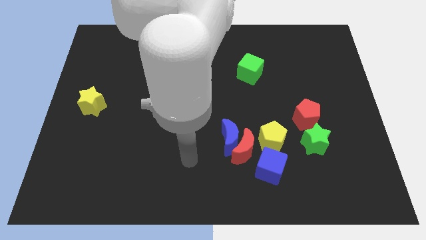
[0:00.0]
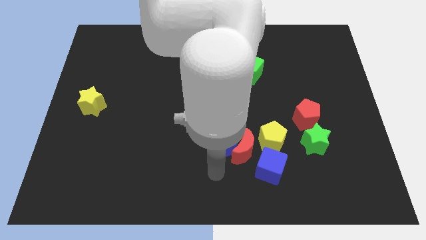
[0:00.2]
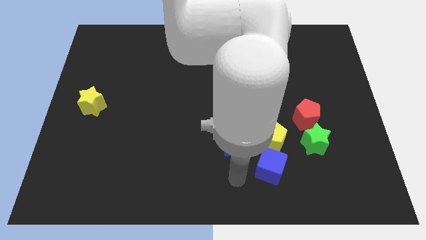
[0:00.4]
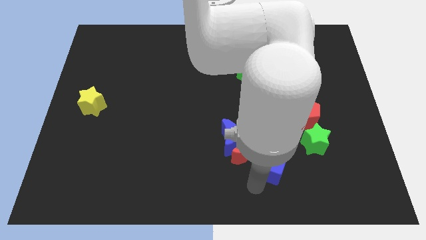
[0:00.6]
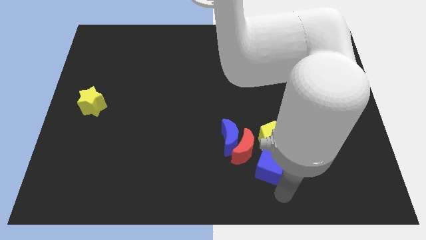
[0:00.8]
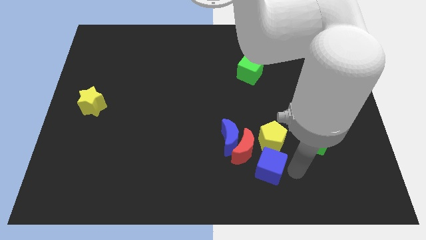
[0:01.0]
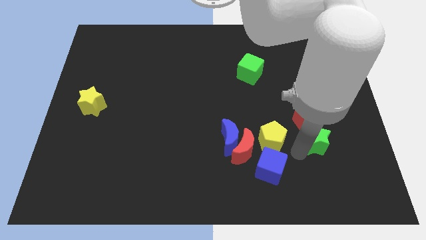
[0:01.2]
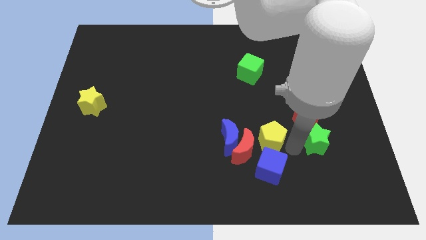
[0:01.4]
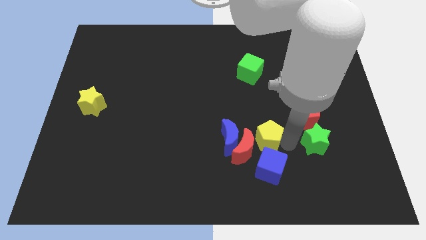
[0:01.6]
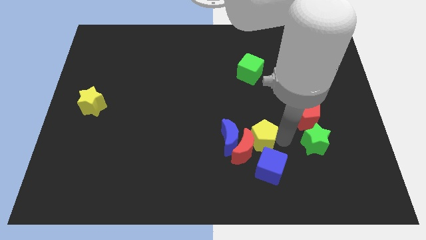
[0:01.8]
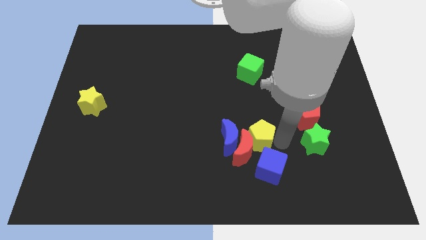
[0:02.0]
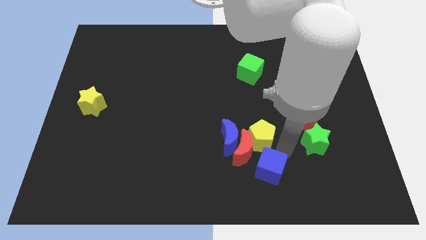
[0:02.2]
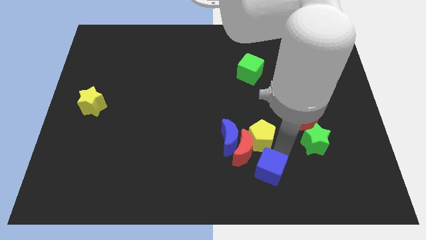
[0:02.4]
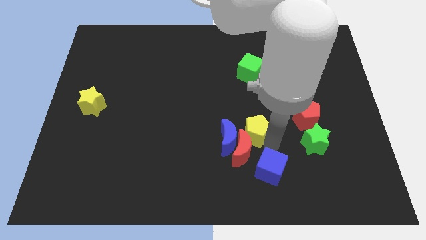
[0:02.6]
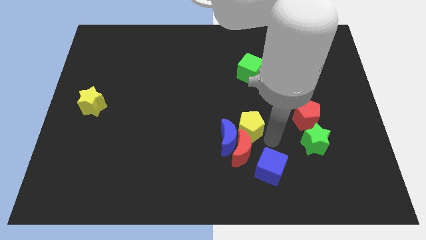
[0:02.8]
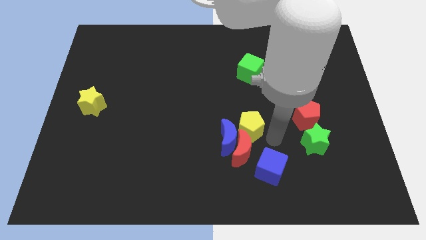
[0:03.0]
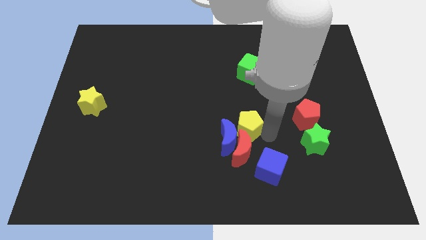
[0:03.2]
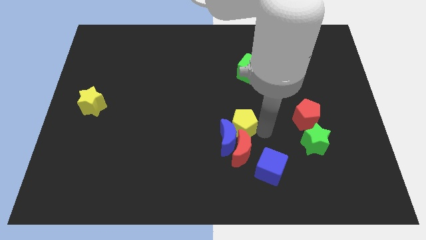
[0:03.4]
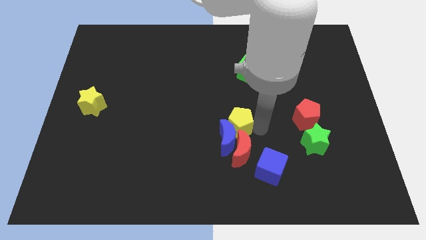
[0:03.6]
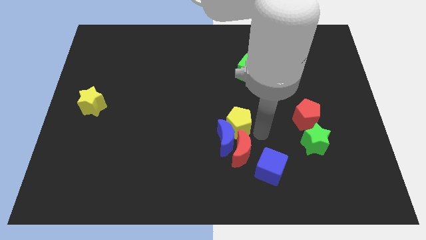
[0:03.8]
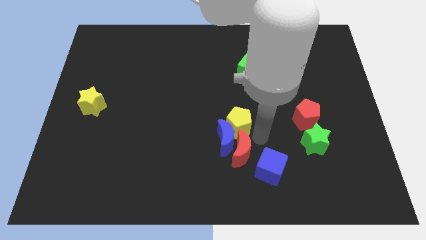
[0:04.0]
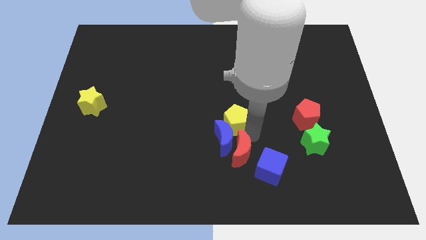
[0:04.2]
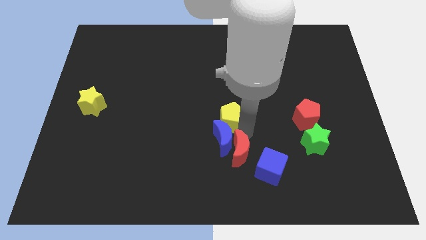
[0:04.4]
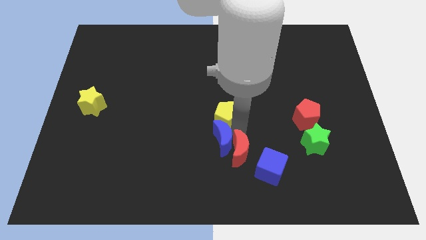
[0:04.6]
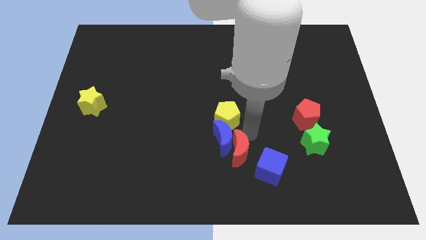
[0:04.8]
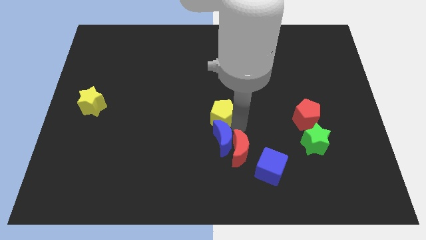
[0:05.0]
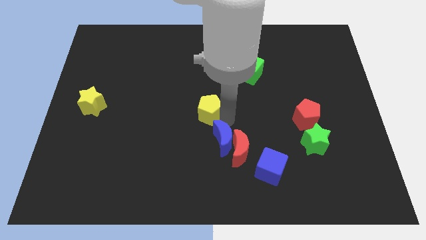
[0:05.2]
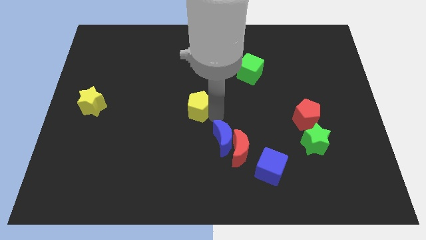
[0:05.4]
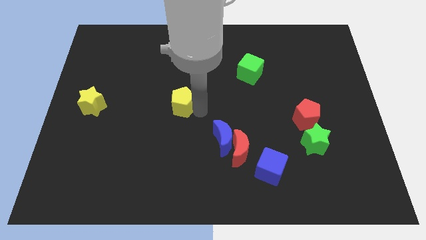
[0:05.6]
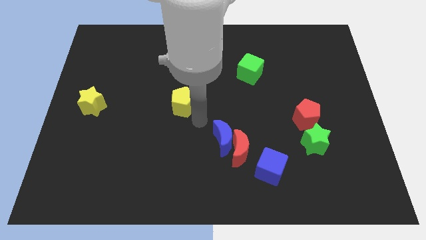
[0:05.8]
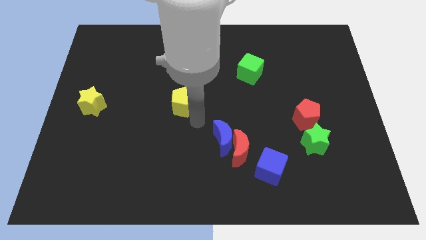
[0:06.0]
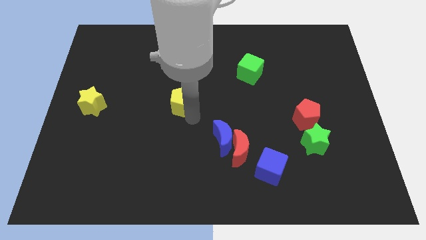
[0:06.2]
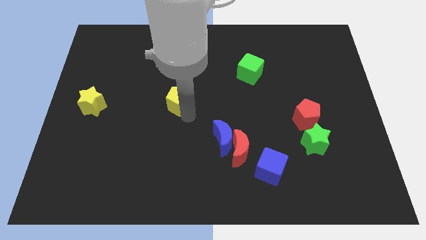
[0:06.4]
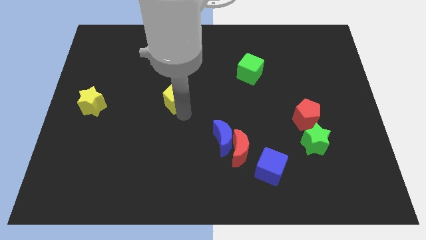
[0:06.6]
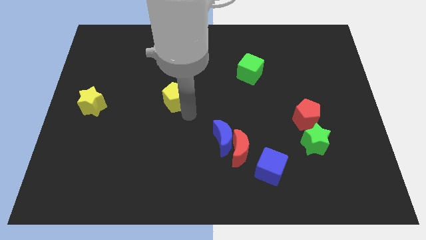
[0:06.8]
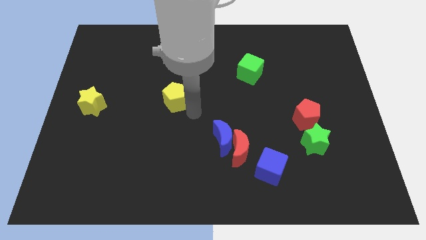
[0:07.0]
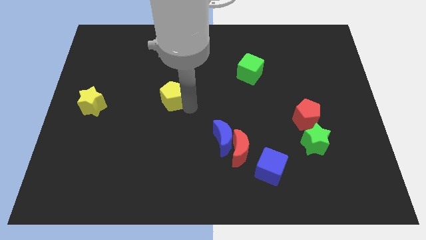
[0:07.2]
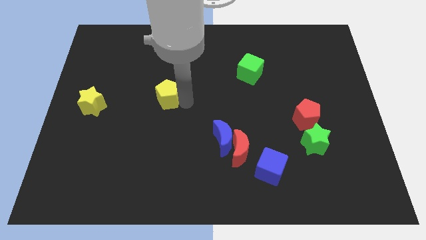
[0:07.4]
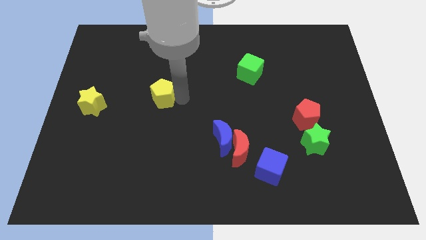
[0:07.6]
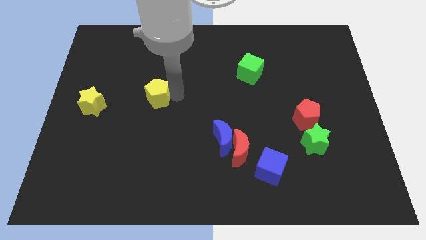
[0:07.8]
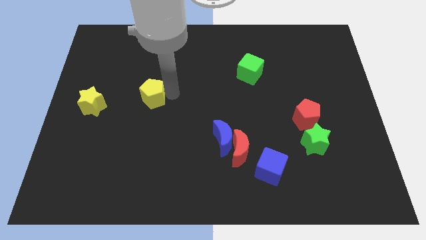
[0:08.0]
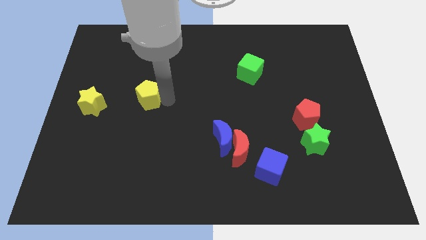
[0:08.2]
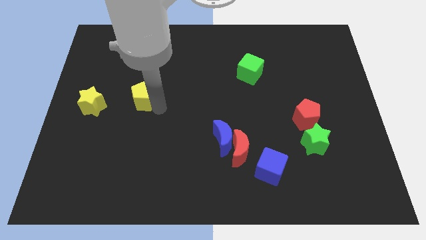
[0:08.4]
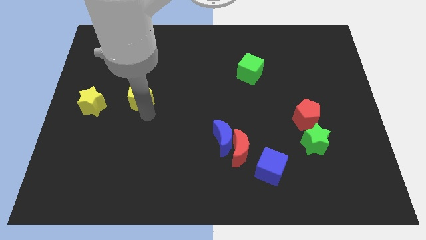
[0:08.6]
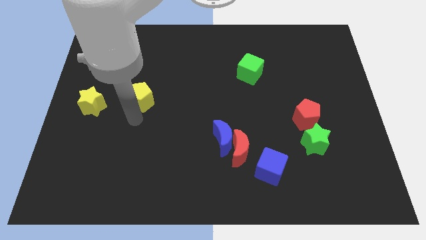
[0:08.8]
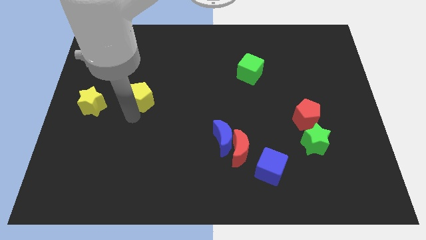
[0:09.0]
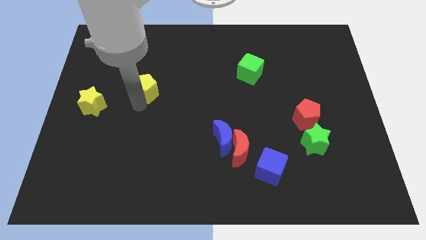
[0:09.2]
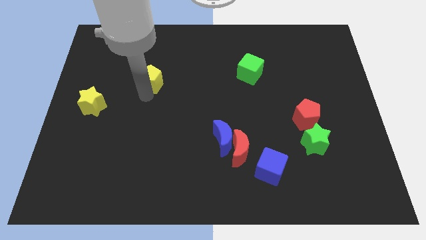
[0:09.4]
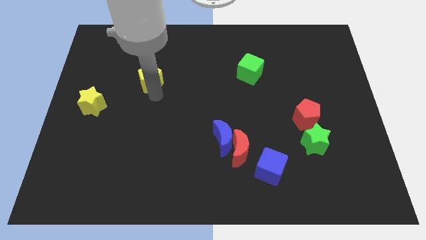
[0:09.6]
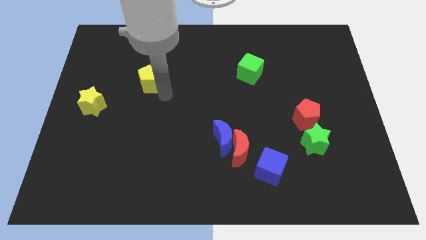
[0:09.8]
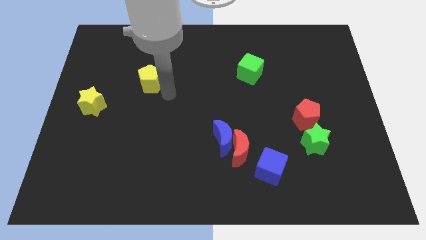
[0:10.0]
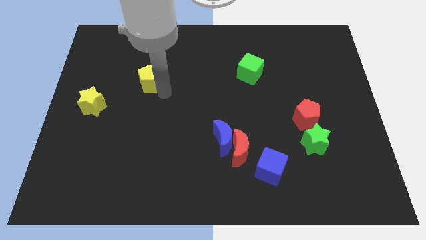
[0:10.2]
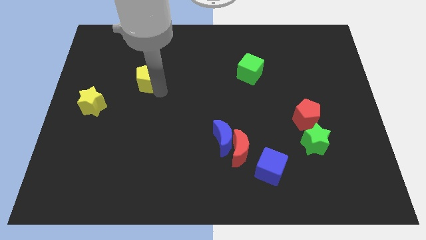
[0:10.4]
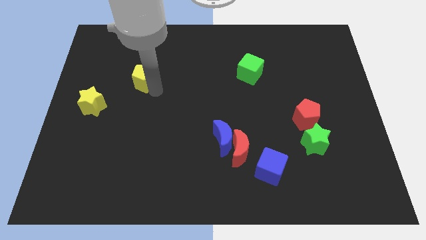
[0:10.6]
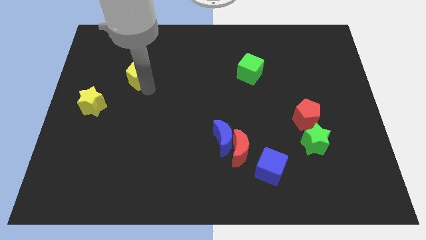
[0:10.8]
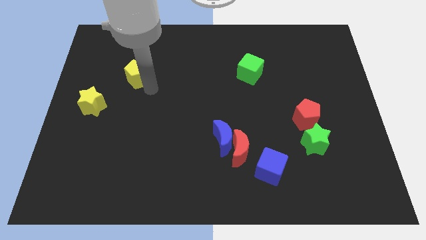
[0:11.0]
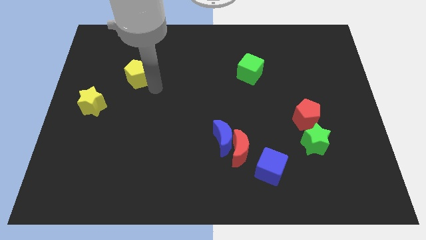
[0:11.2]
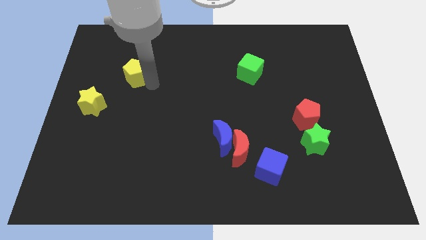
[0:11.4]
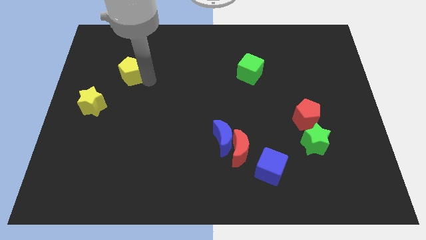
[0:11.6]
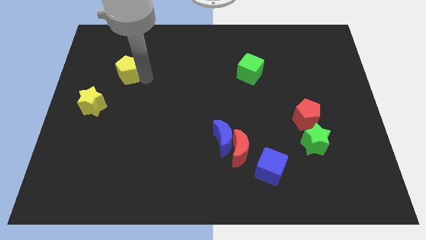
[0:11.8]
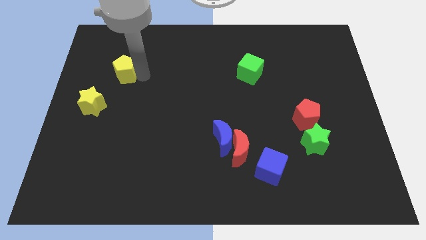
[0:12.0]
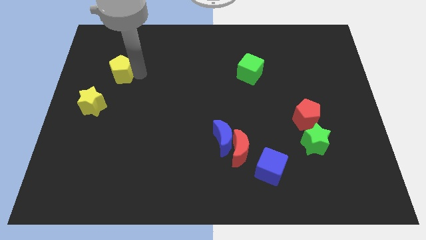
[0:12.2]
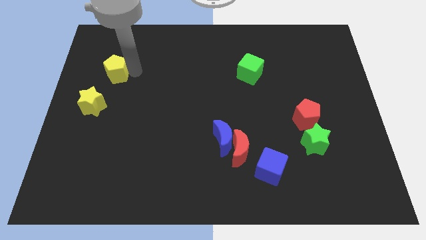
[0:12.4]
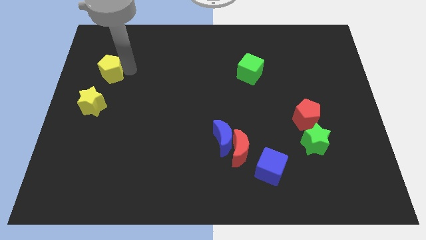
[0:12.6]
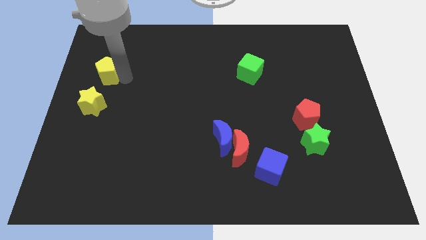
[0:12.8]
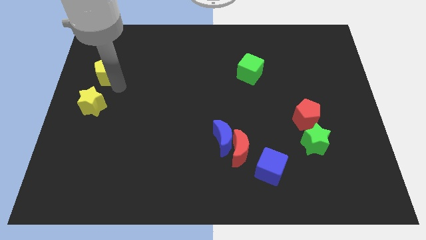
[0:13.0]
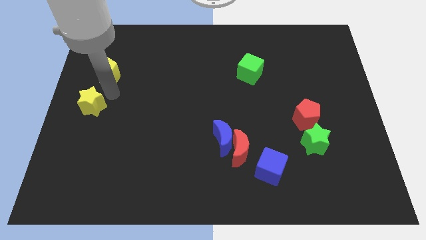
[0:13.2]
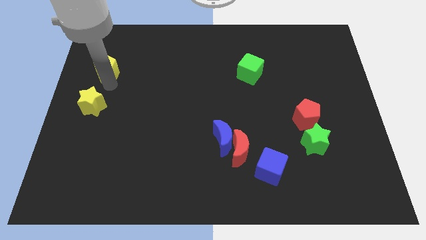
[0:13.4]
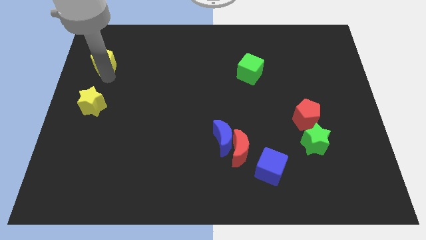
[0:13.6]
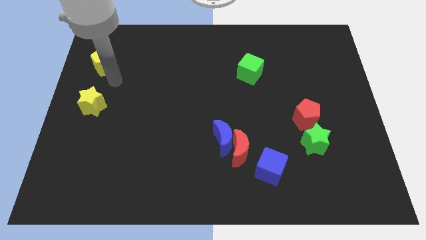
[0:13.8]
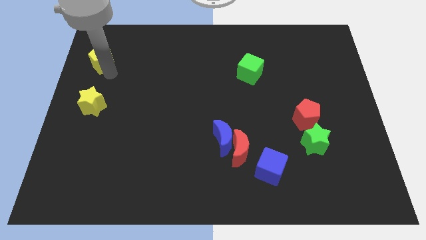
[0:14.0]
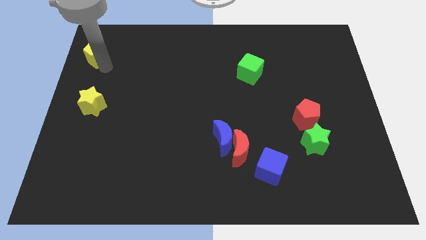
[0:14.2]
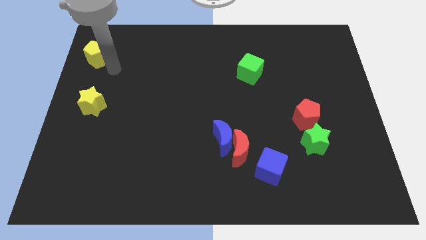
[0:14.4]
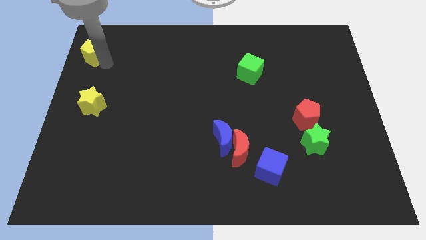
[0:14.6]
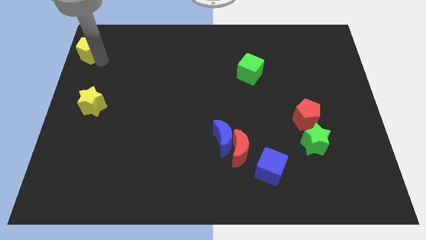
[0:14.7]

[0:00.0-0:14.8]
slide the yellow pentagon to the top left corner
